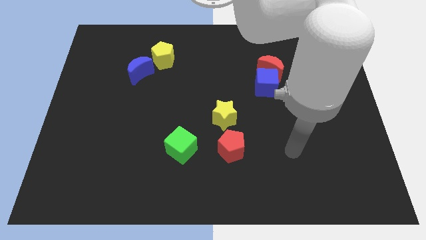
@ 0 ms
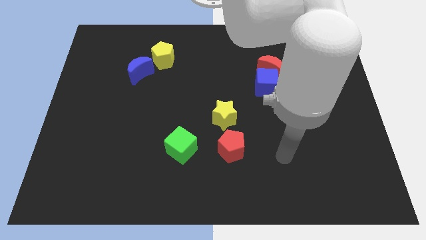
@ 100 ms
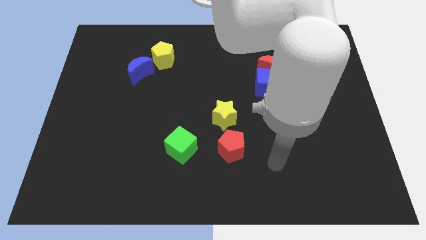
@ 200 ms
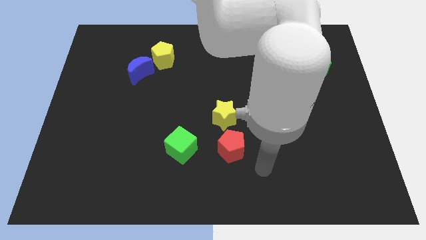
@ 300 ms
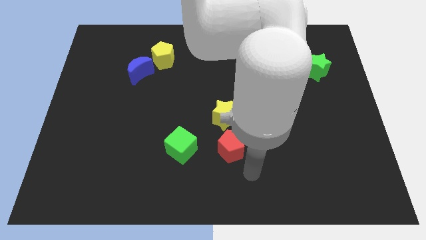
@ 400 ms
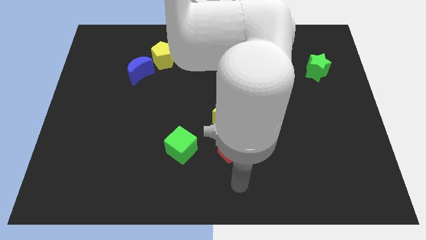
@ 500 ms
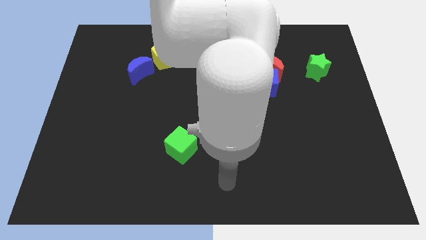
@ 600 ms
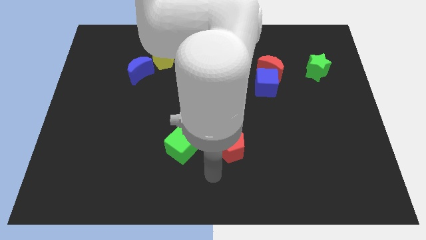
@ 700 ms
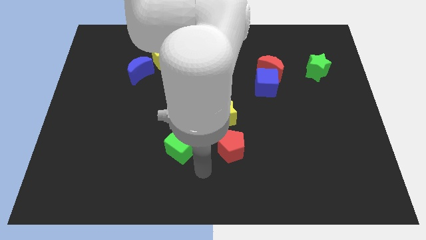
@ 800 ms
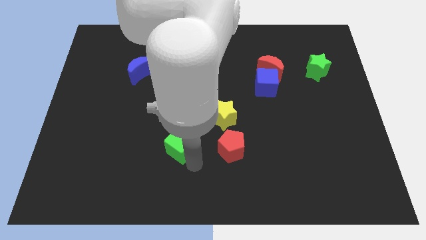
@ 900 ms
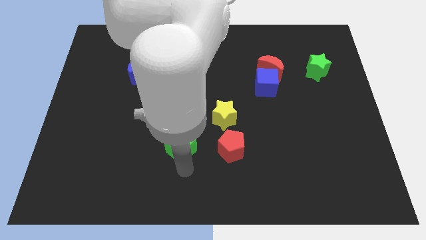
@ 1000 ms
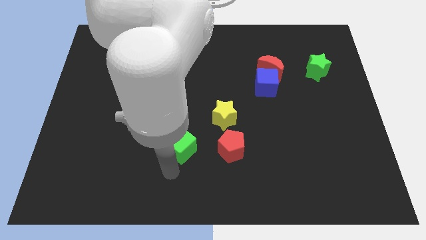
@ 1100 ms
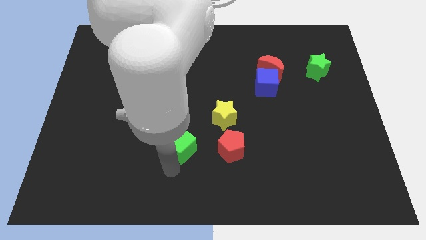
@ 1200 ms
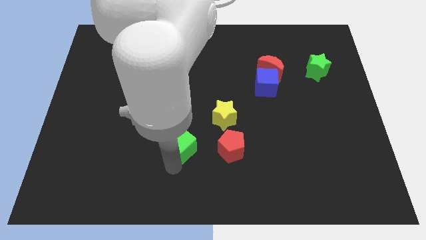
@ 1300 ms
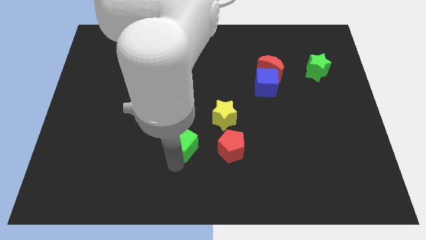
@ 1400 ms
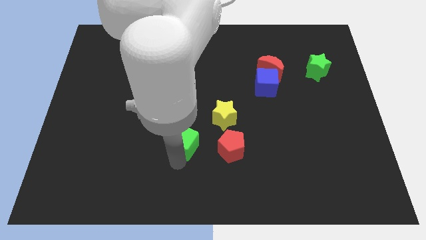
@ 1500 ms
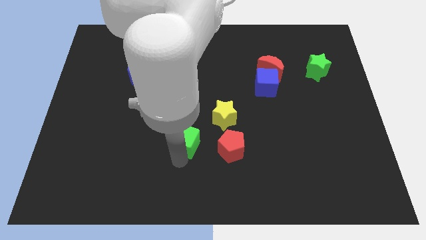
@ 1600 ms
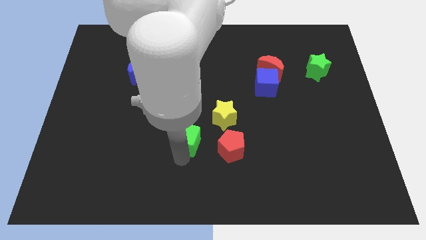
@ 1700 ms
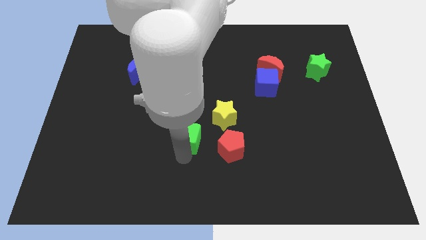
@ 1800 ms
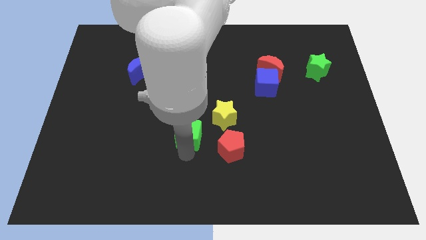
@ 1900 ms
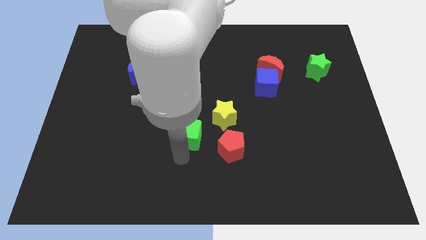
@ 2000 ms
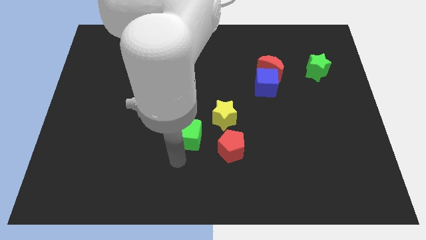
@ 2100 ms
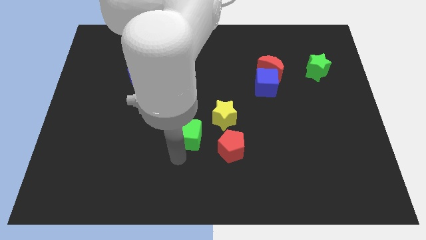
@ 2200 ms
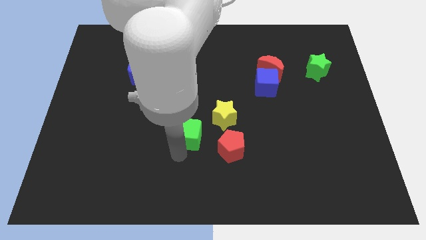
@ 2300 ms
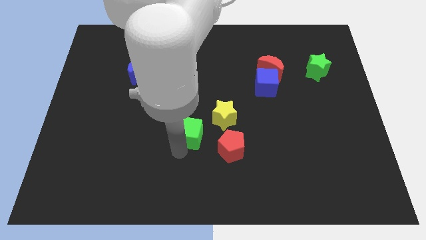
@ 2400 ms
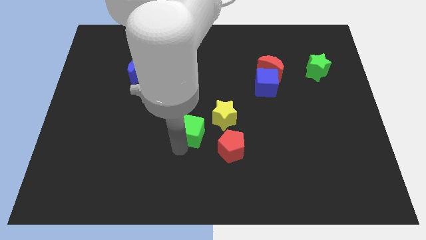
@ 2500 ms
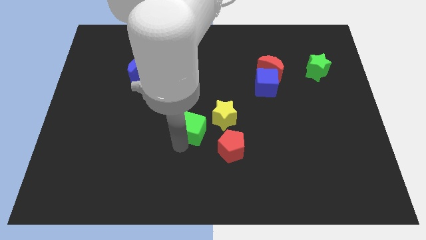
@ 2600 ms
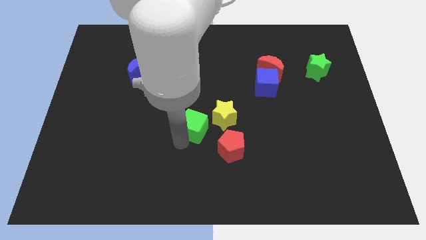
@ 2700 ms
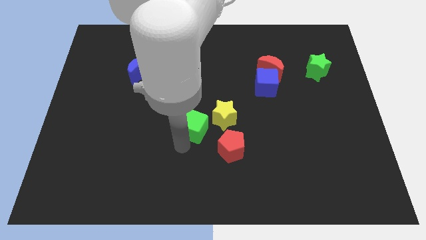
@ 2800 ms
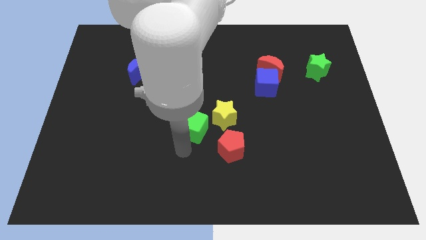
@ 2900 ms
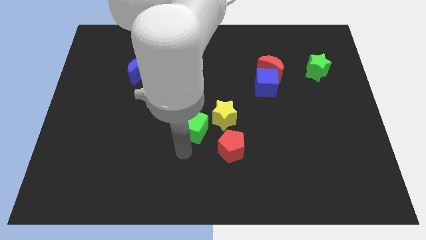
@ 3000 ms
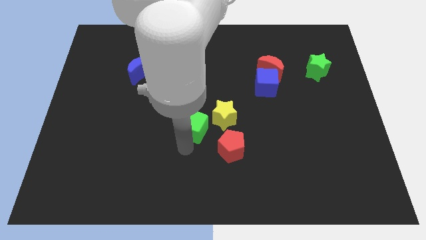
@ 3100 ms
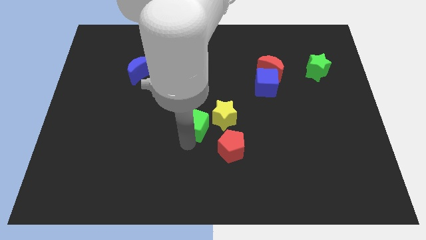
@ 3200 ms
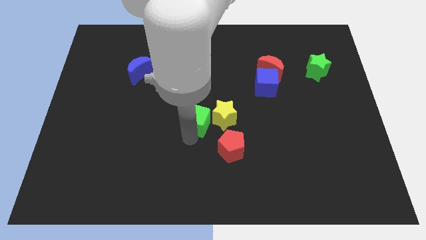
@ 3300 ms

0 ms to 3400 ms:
slightly slide the green cube diagonally upwards and to the right

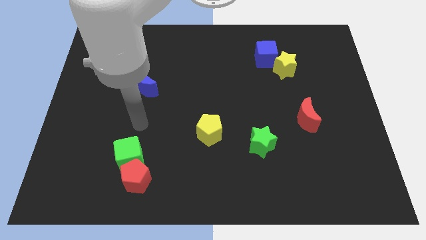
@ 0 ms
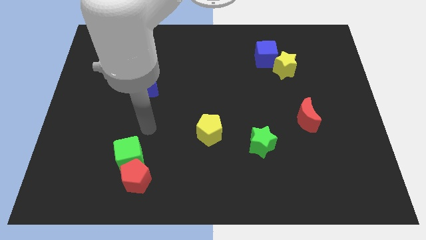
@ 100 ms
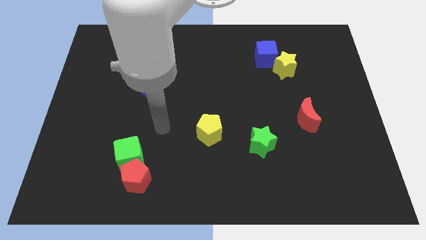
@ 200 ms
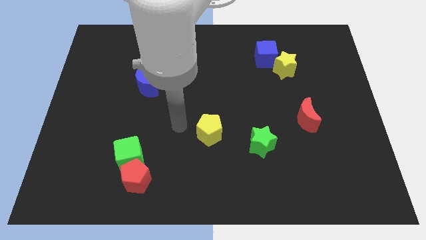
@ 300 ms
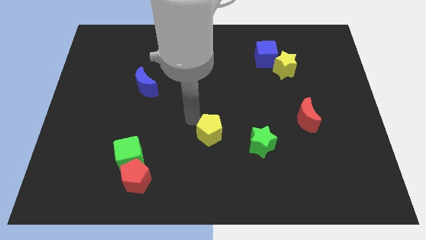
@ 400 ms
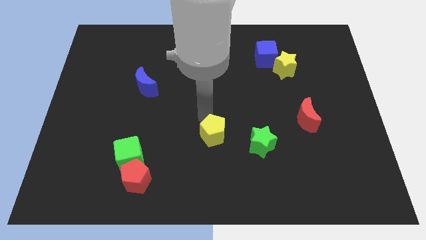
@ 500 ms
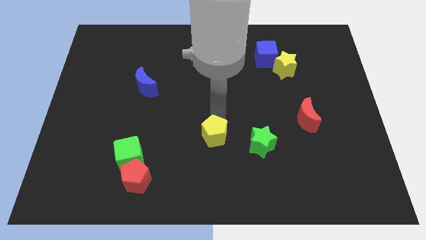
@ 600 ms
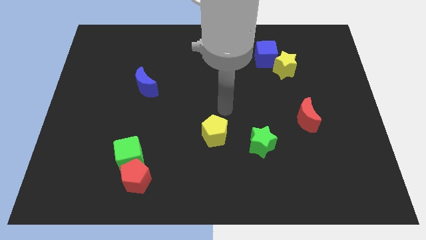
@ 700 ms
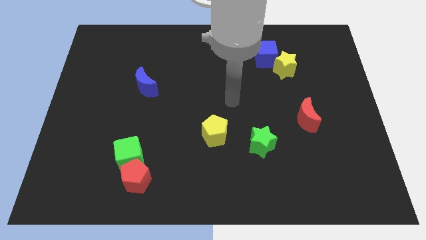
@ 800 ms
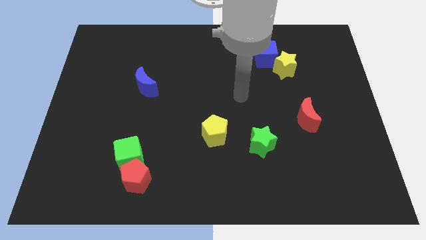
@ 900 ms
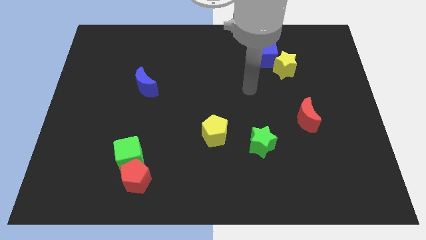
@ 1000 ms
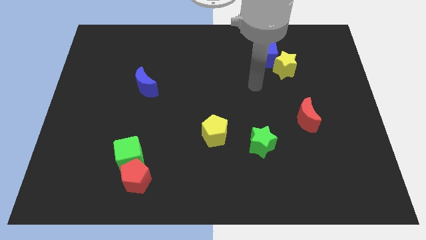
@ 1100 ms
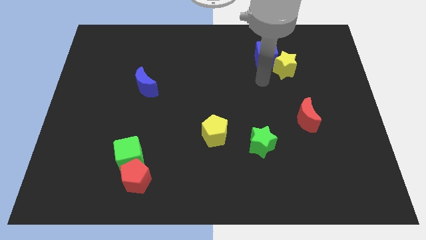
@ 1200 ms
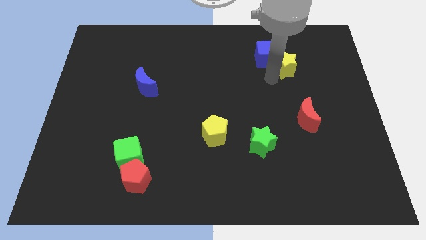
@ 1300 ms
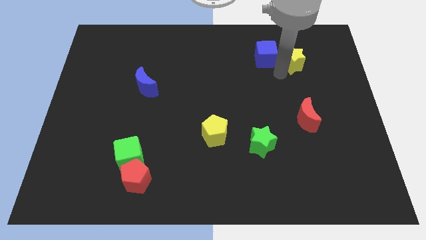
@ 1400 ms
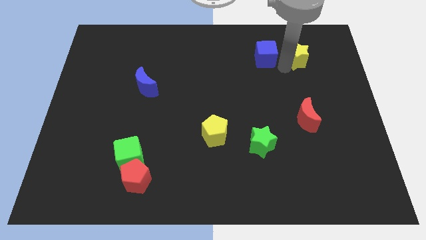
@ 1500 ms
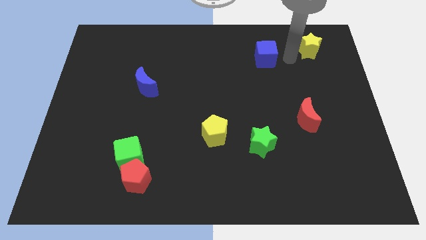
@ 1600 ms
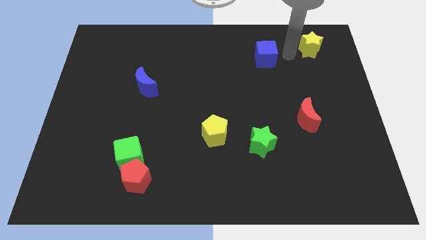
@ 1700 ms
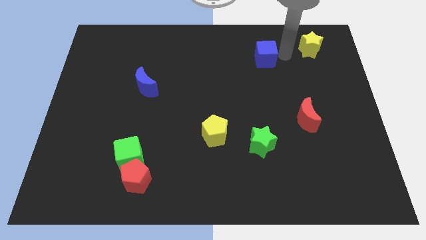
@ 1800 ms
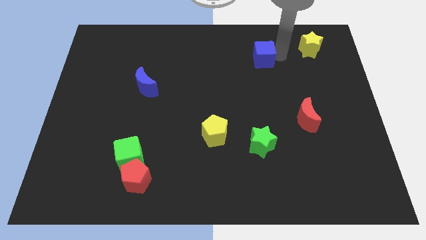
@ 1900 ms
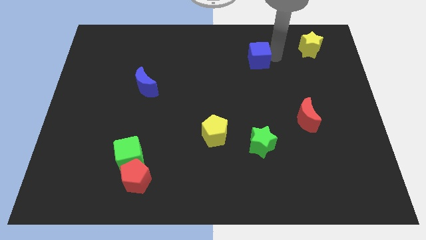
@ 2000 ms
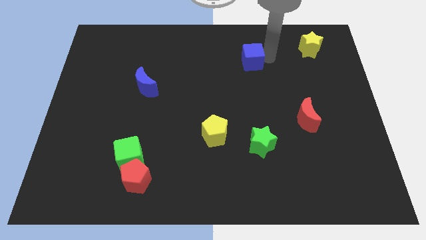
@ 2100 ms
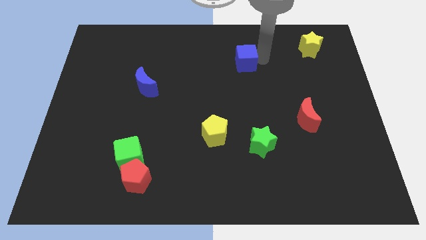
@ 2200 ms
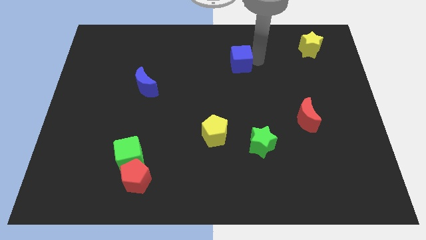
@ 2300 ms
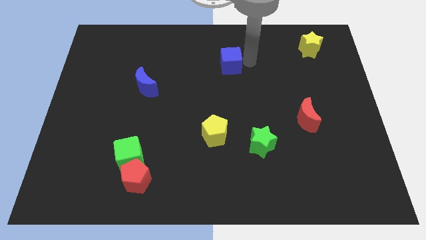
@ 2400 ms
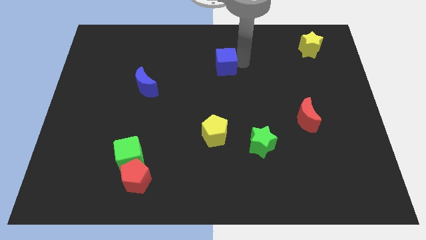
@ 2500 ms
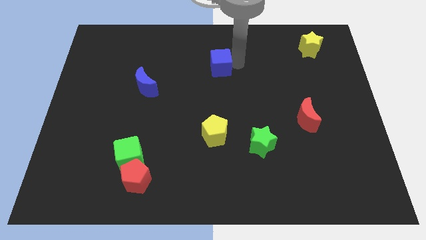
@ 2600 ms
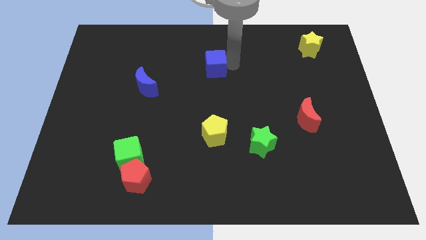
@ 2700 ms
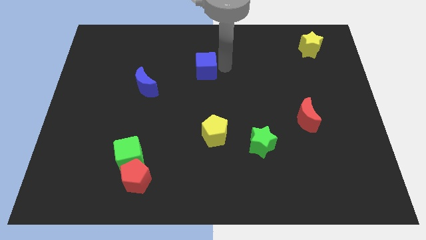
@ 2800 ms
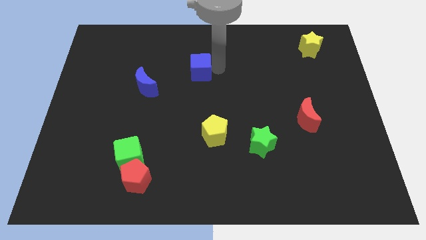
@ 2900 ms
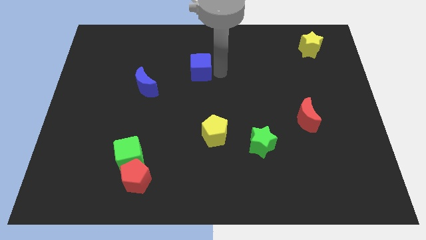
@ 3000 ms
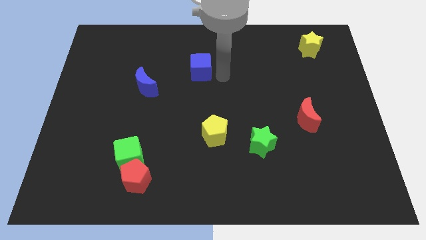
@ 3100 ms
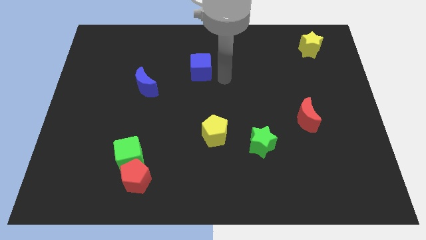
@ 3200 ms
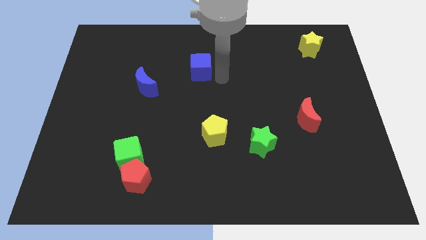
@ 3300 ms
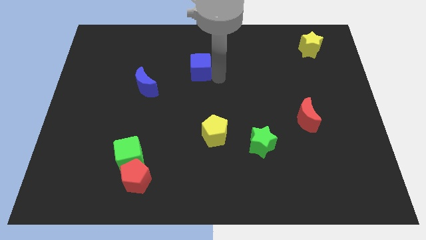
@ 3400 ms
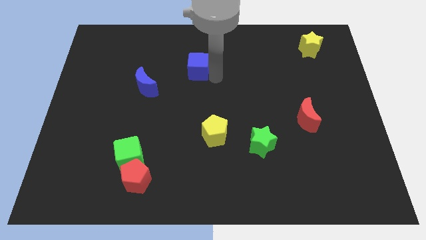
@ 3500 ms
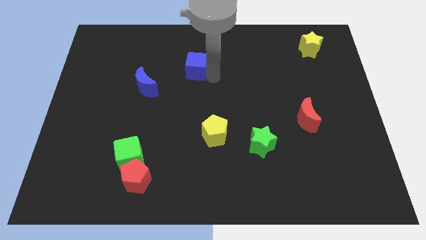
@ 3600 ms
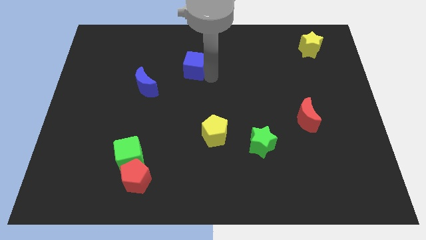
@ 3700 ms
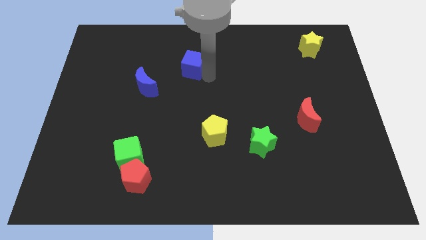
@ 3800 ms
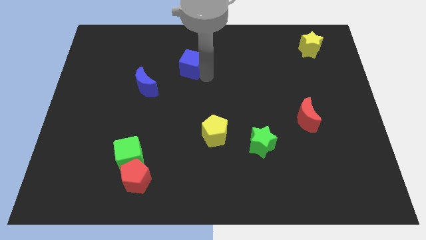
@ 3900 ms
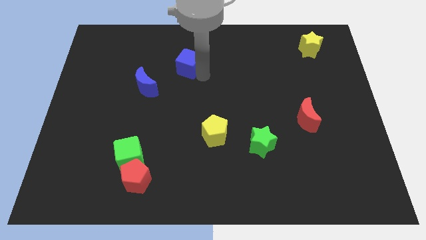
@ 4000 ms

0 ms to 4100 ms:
move the blue cube left
